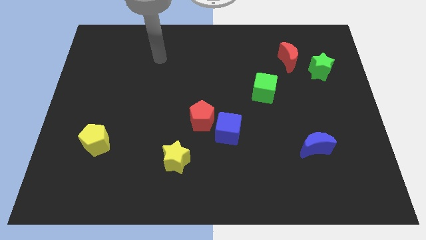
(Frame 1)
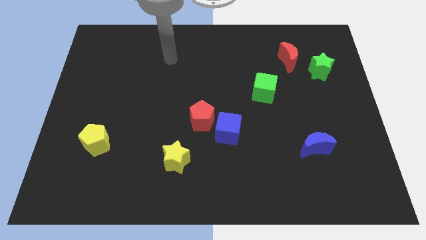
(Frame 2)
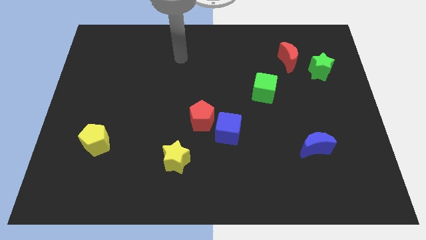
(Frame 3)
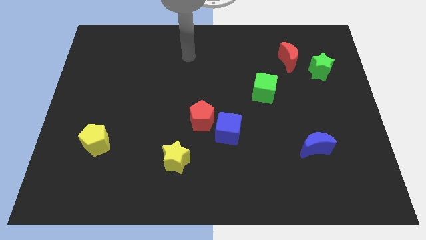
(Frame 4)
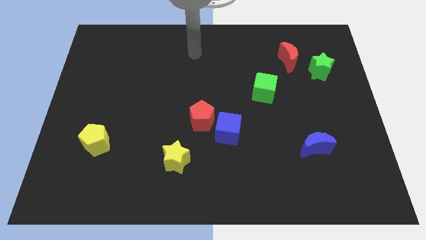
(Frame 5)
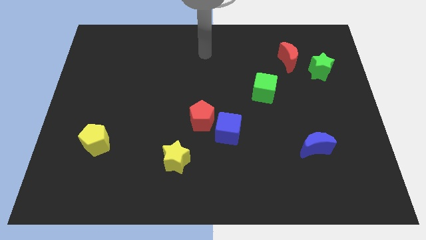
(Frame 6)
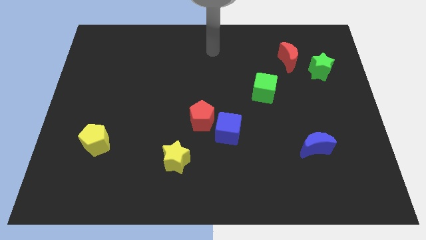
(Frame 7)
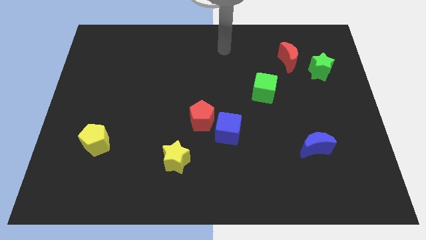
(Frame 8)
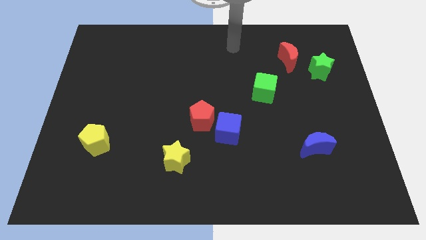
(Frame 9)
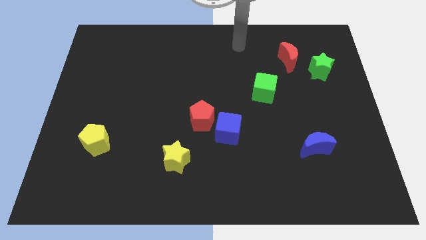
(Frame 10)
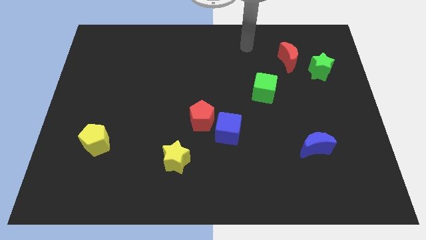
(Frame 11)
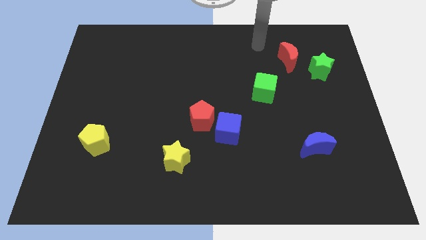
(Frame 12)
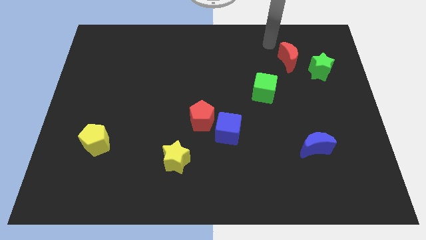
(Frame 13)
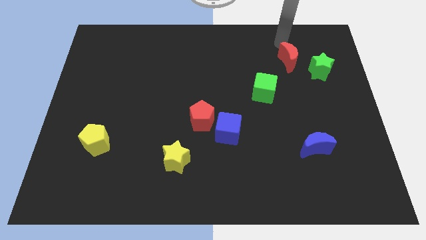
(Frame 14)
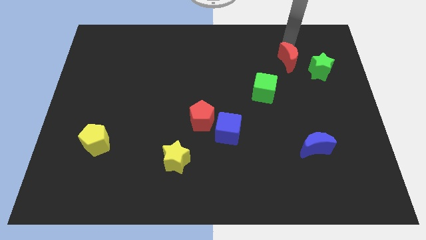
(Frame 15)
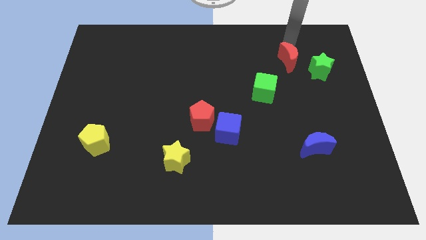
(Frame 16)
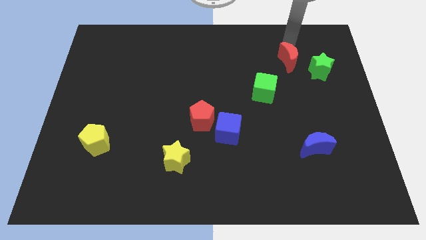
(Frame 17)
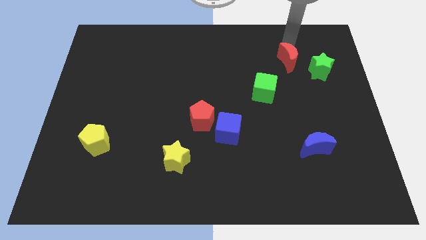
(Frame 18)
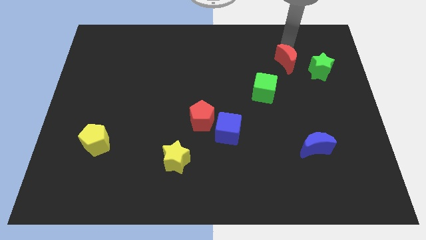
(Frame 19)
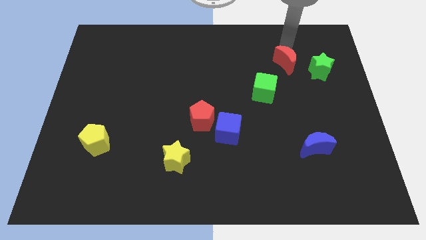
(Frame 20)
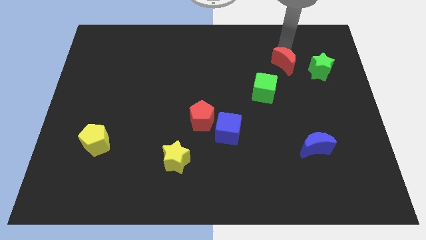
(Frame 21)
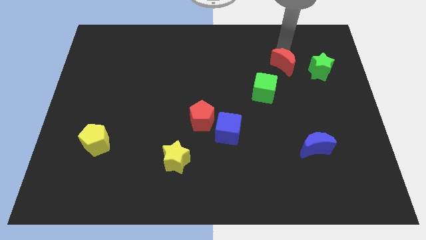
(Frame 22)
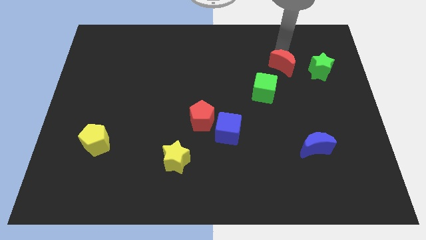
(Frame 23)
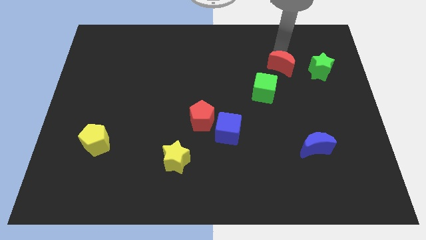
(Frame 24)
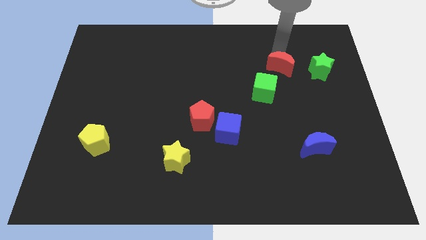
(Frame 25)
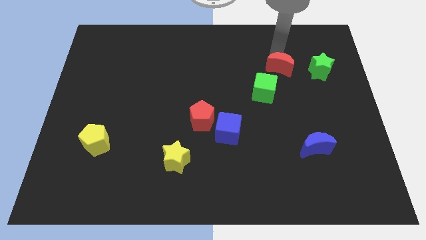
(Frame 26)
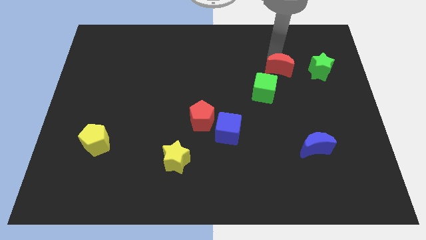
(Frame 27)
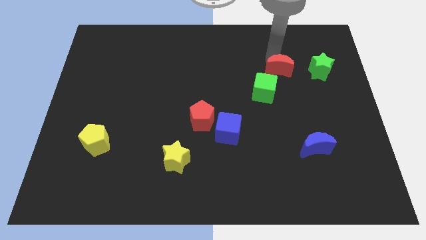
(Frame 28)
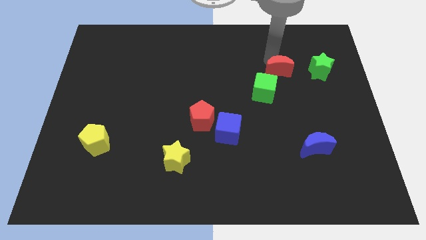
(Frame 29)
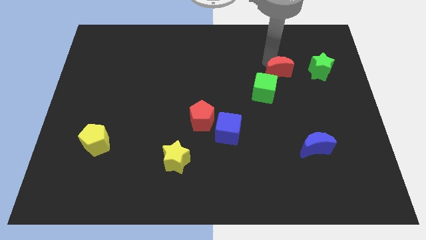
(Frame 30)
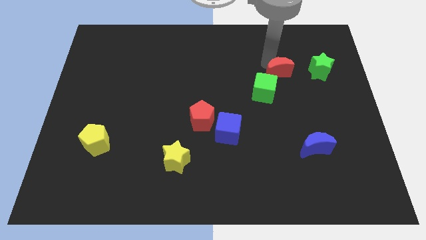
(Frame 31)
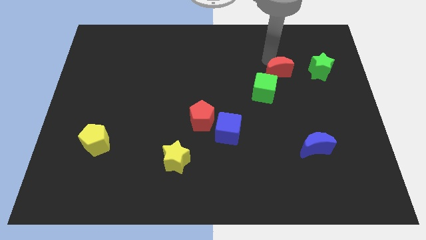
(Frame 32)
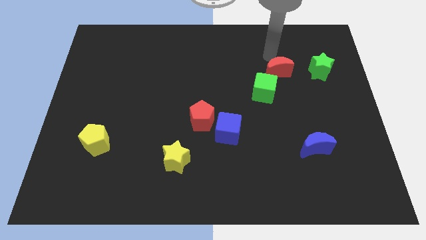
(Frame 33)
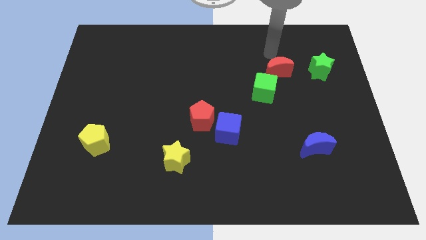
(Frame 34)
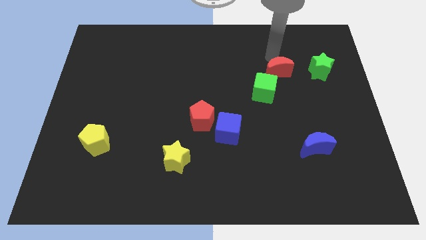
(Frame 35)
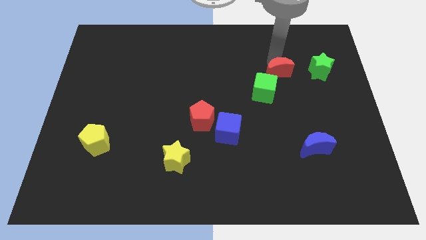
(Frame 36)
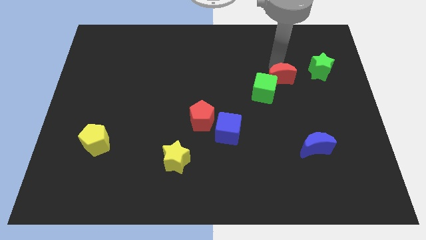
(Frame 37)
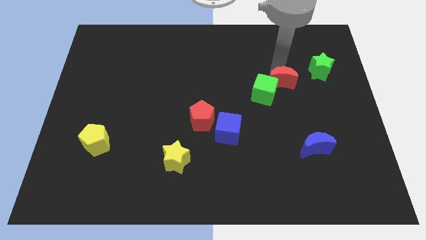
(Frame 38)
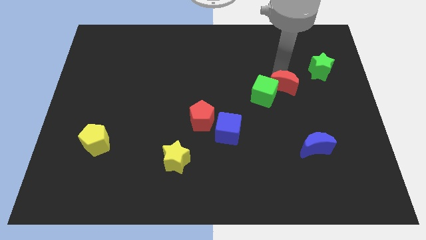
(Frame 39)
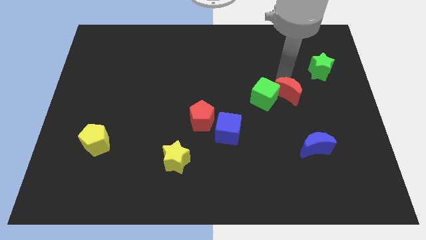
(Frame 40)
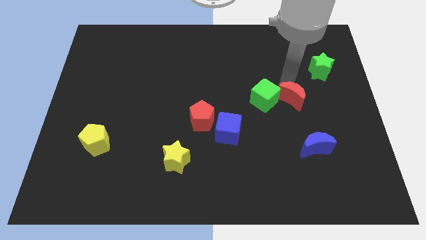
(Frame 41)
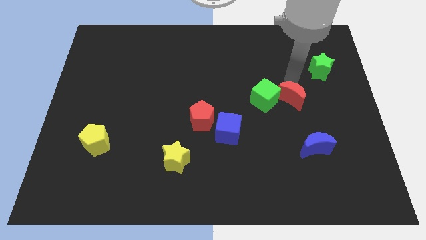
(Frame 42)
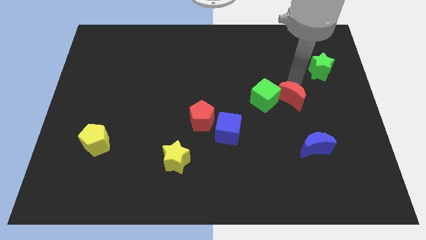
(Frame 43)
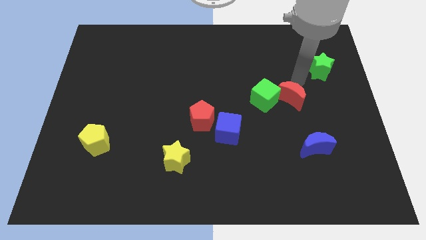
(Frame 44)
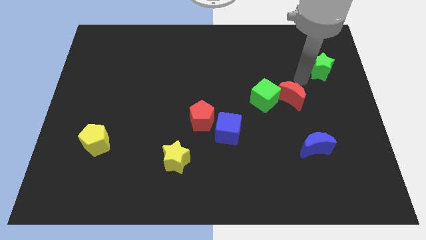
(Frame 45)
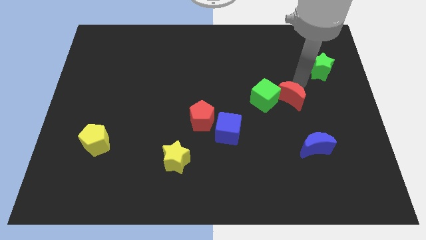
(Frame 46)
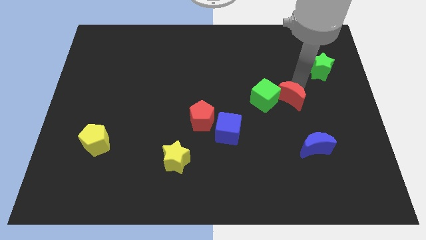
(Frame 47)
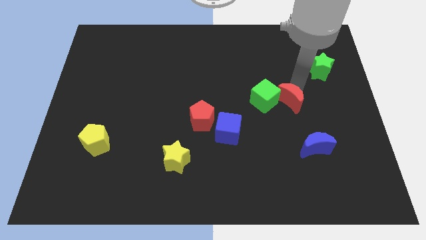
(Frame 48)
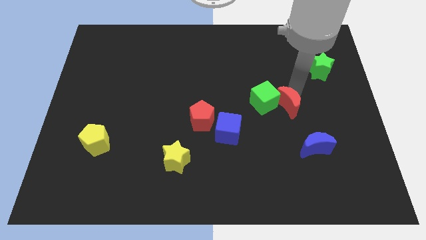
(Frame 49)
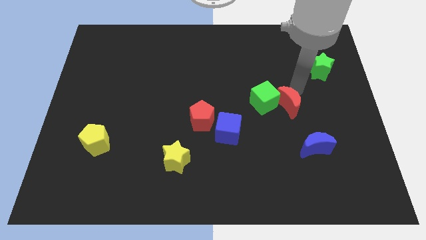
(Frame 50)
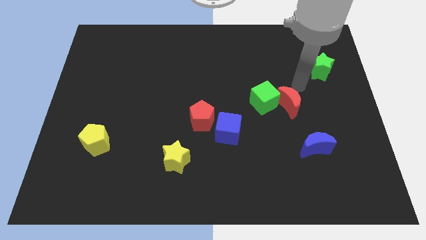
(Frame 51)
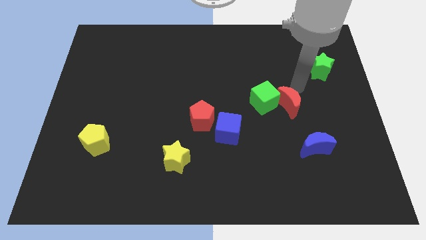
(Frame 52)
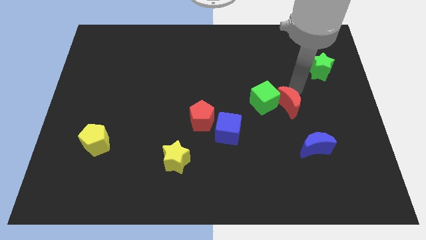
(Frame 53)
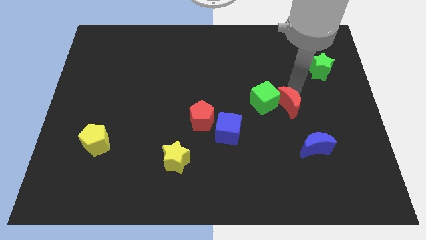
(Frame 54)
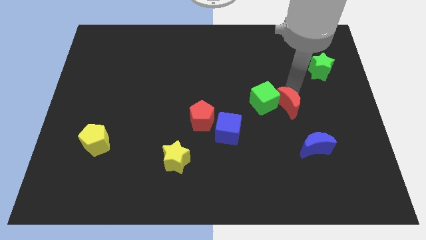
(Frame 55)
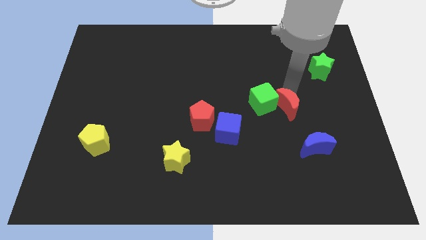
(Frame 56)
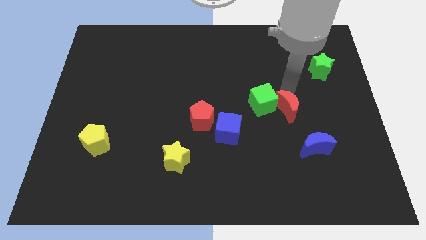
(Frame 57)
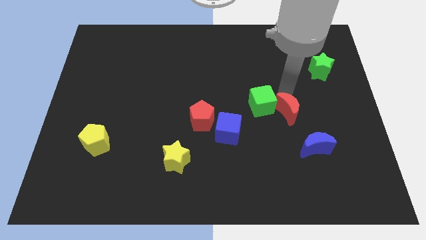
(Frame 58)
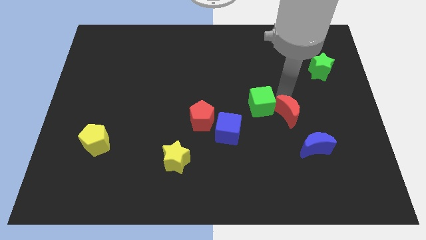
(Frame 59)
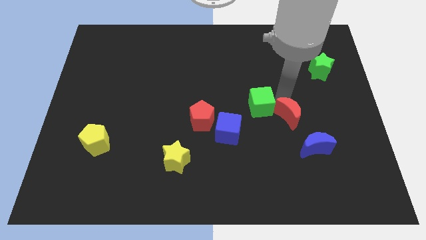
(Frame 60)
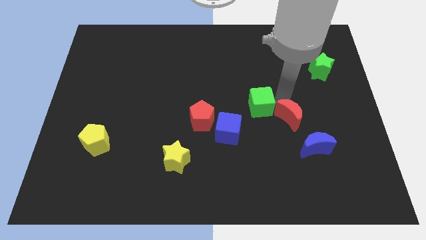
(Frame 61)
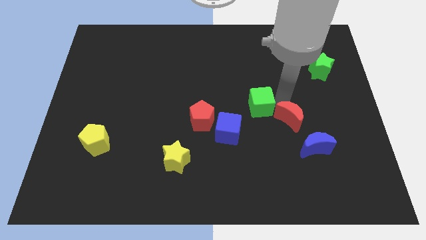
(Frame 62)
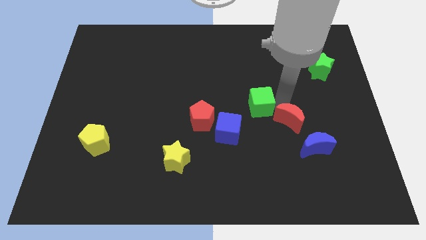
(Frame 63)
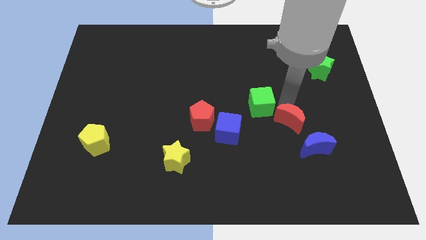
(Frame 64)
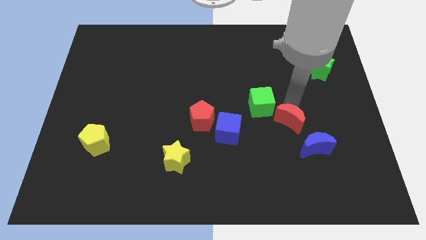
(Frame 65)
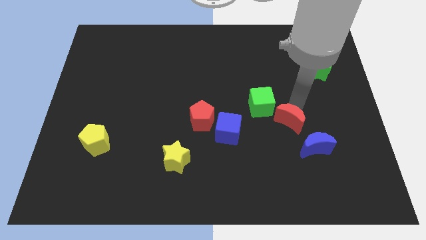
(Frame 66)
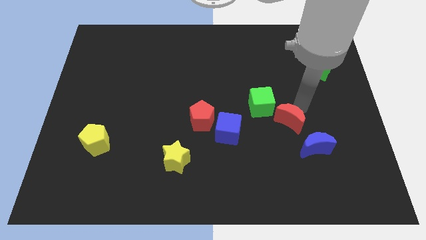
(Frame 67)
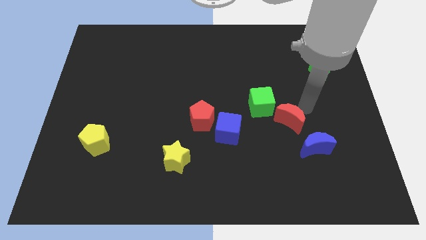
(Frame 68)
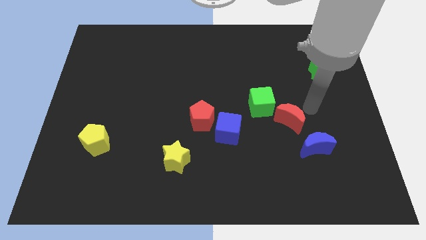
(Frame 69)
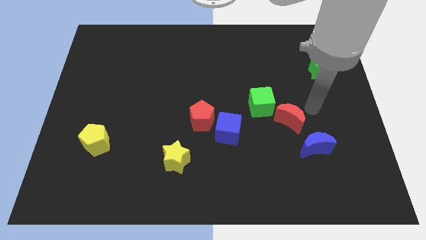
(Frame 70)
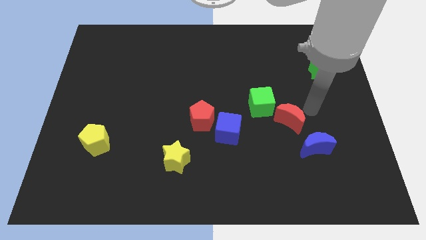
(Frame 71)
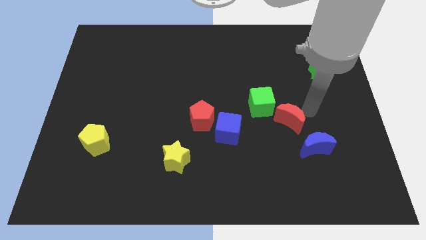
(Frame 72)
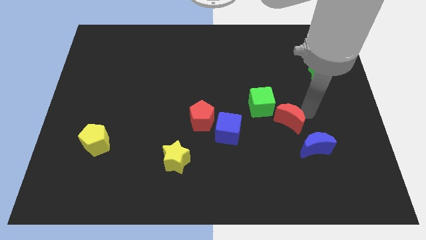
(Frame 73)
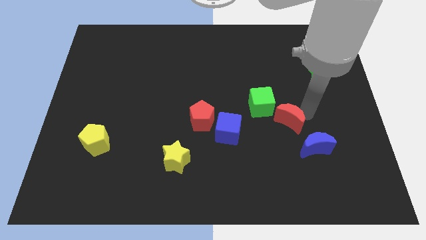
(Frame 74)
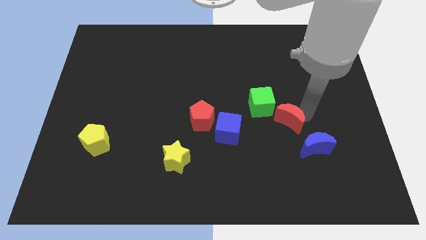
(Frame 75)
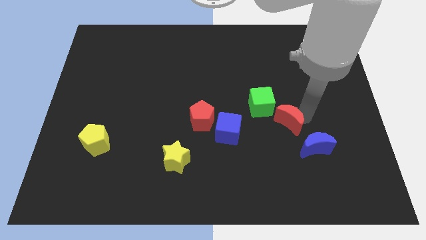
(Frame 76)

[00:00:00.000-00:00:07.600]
slide the red moon downwards

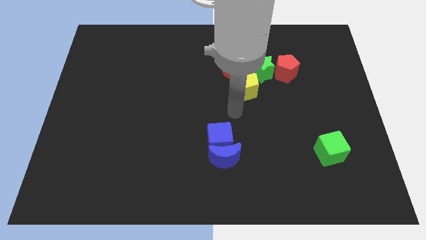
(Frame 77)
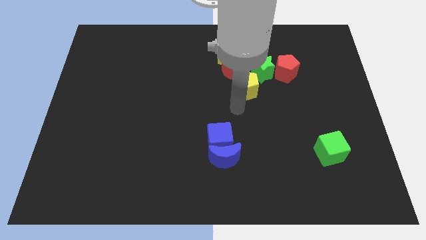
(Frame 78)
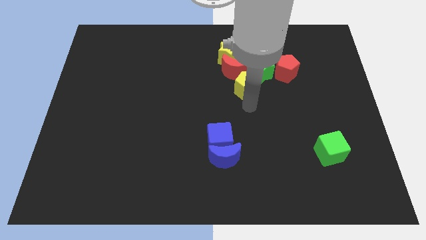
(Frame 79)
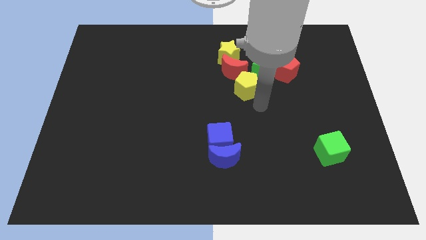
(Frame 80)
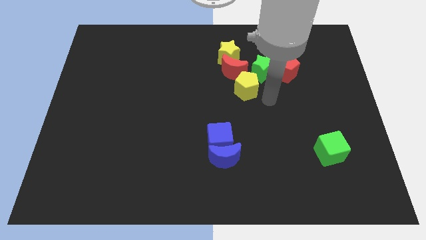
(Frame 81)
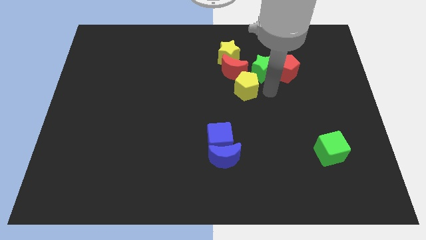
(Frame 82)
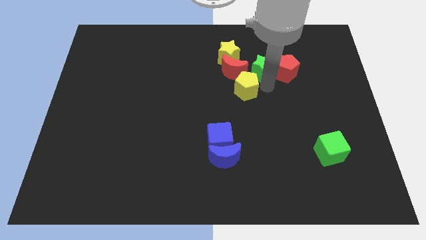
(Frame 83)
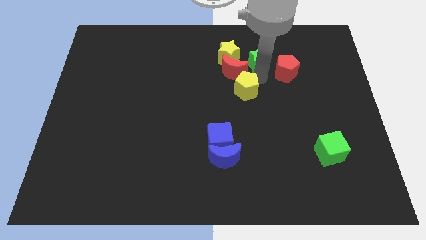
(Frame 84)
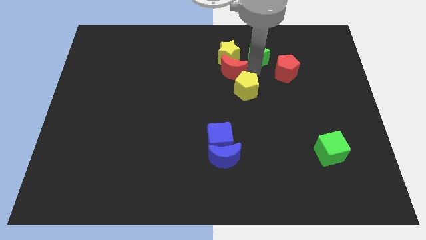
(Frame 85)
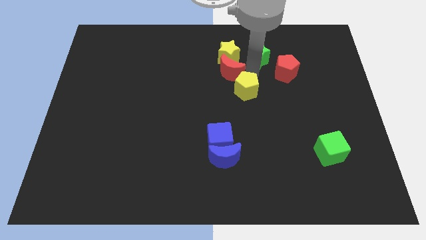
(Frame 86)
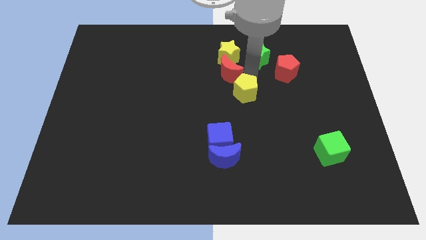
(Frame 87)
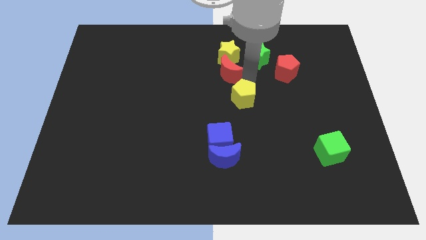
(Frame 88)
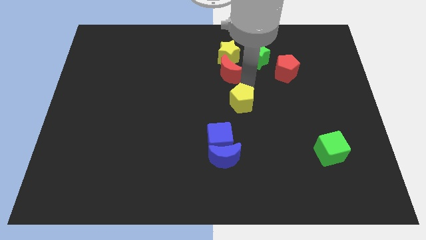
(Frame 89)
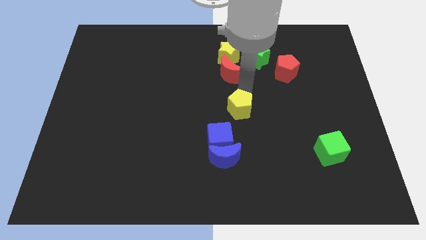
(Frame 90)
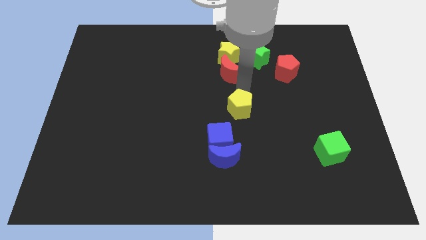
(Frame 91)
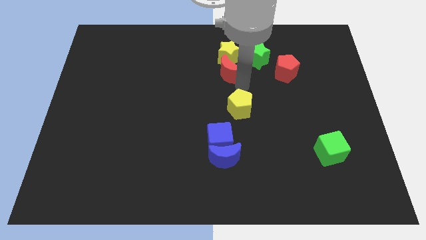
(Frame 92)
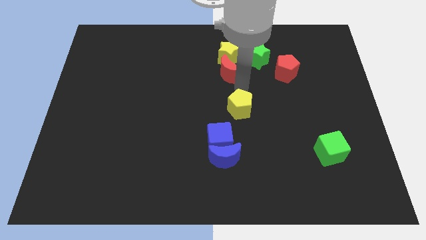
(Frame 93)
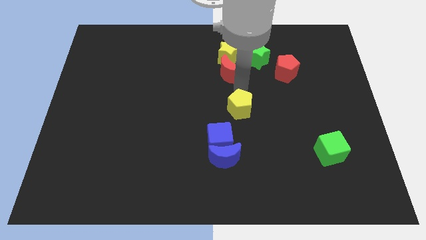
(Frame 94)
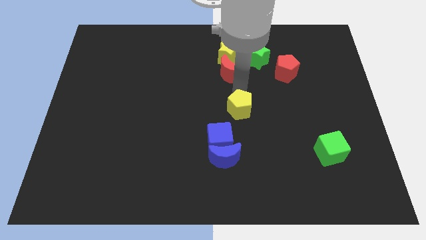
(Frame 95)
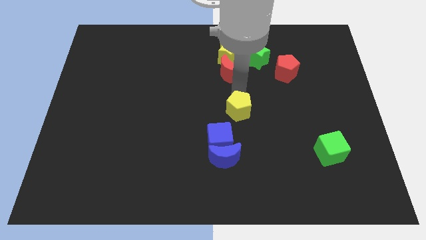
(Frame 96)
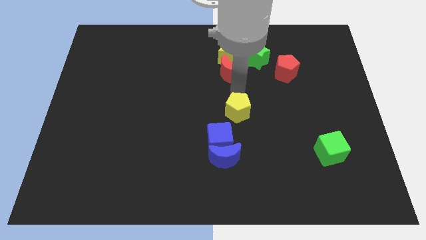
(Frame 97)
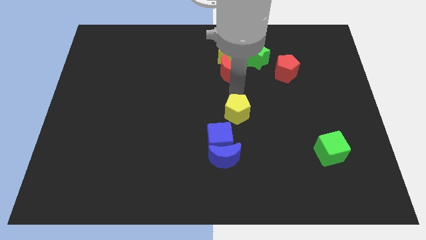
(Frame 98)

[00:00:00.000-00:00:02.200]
slightly push the yellow pentagon down
